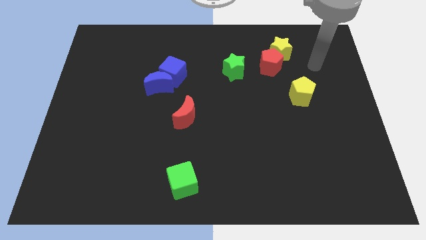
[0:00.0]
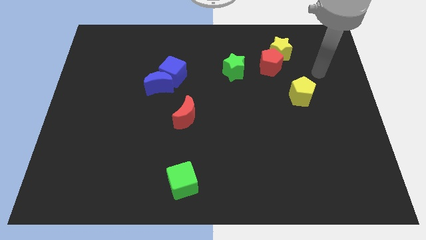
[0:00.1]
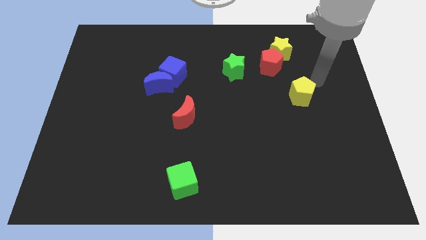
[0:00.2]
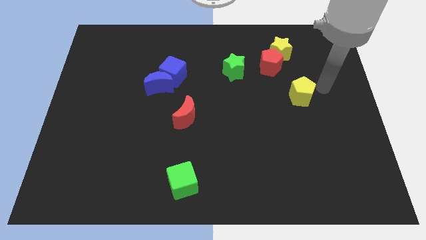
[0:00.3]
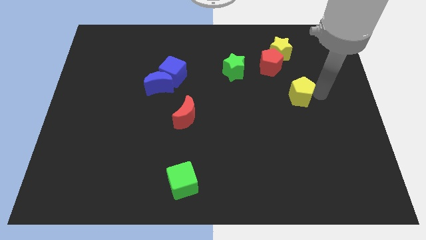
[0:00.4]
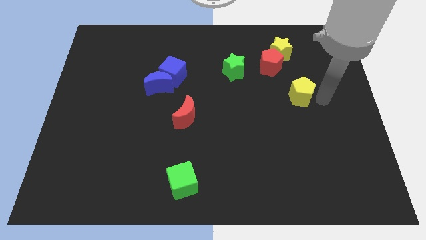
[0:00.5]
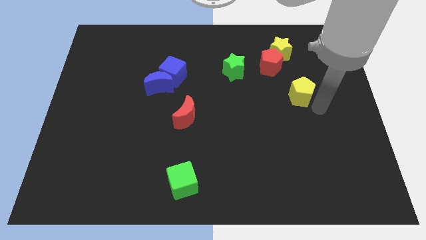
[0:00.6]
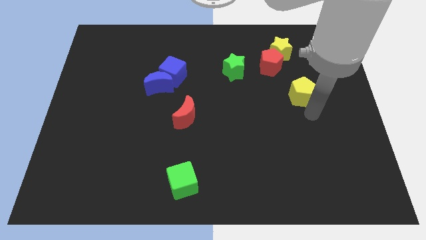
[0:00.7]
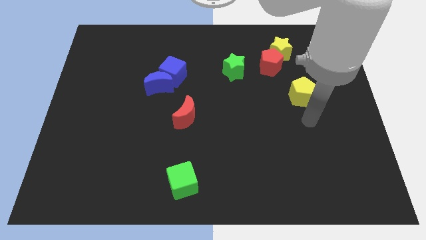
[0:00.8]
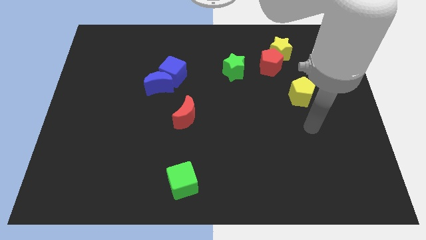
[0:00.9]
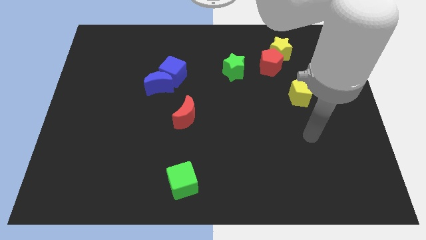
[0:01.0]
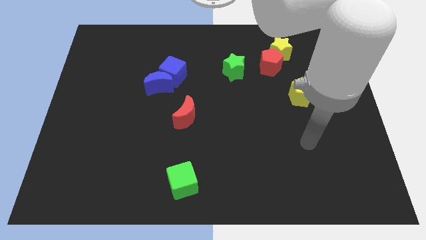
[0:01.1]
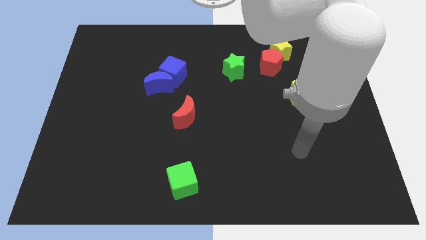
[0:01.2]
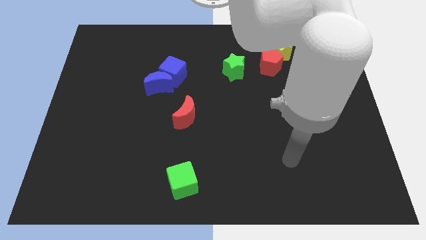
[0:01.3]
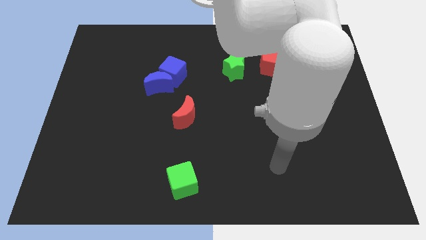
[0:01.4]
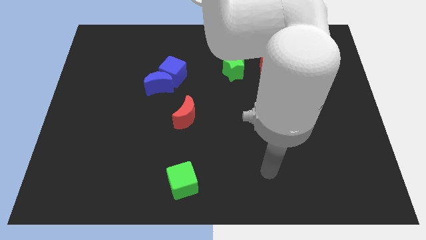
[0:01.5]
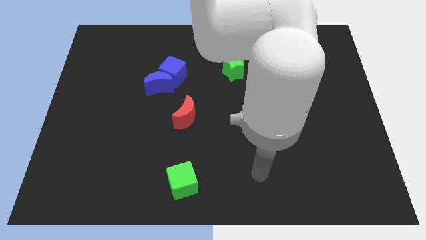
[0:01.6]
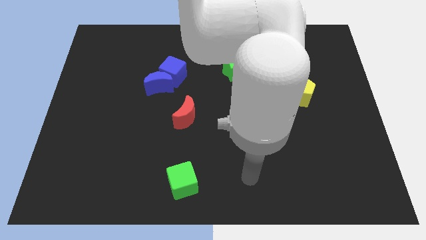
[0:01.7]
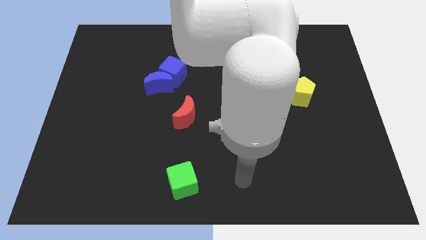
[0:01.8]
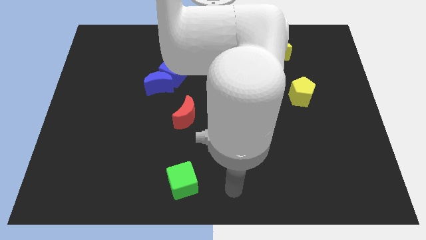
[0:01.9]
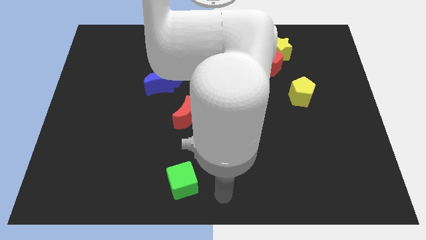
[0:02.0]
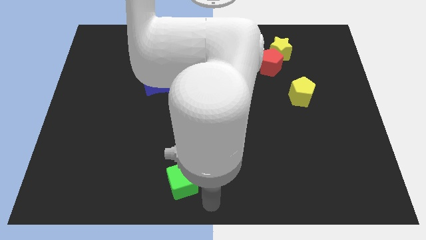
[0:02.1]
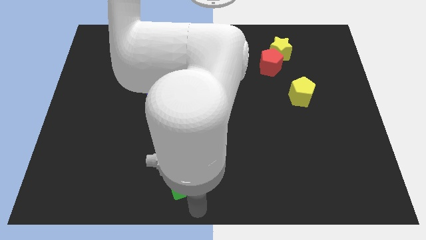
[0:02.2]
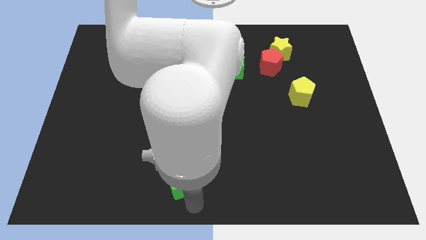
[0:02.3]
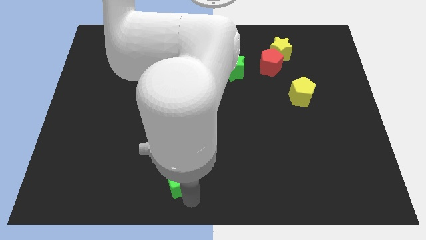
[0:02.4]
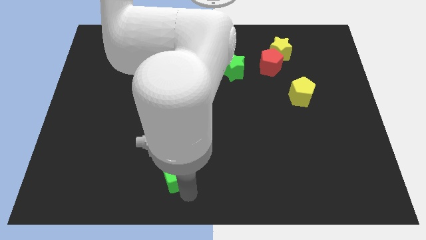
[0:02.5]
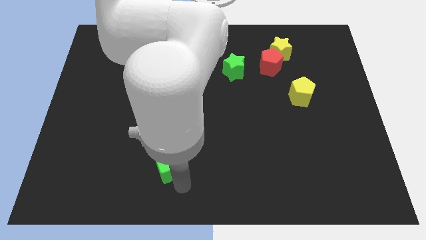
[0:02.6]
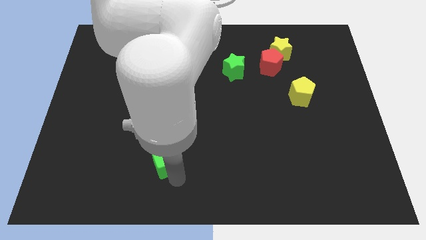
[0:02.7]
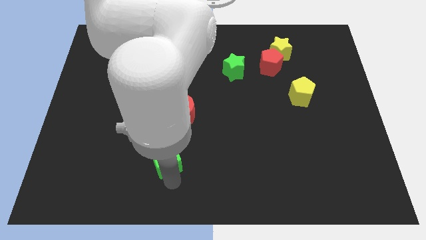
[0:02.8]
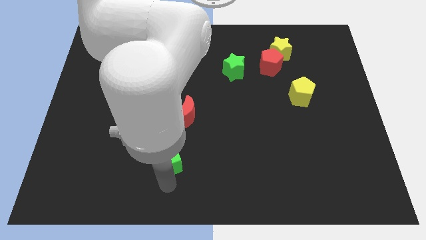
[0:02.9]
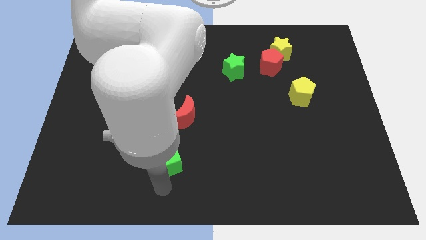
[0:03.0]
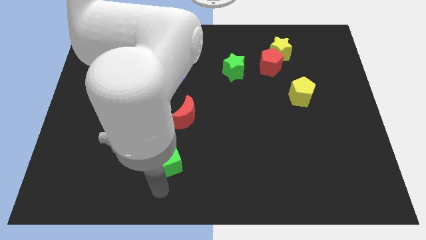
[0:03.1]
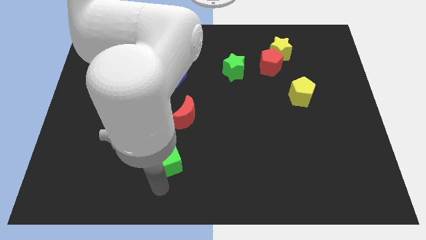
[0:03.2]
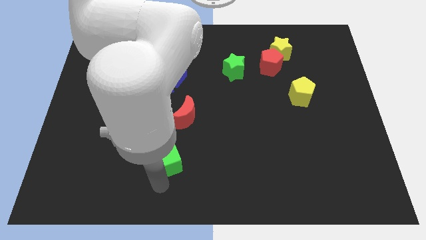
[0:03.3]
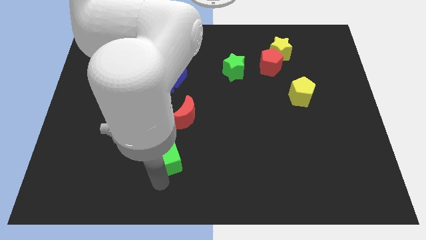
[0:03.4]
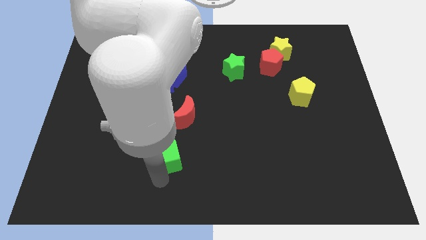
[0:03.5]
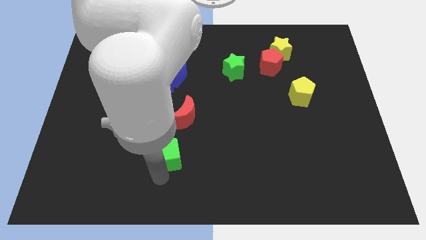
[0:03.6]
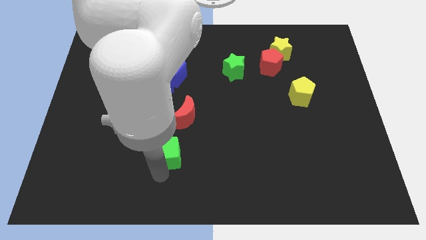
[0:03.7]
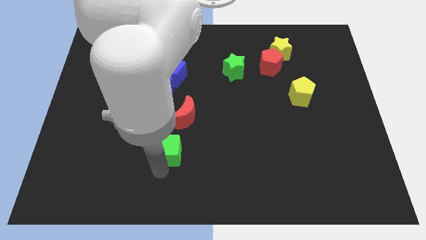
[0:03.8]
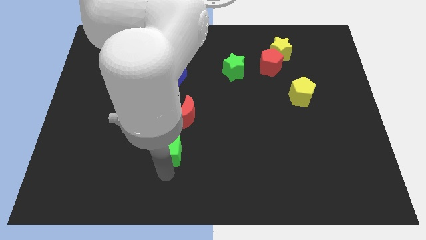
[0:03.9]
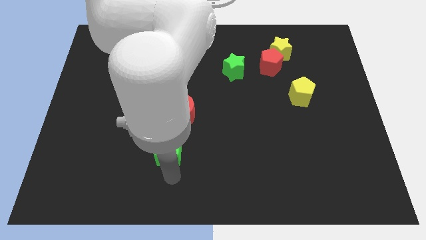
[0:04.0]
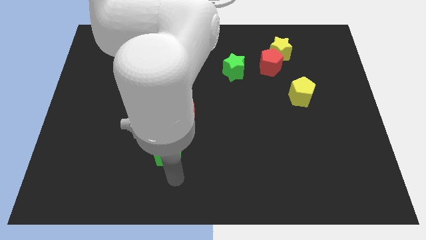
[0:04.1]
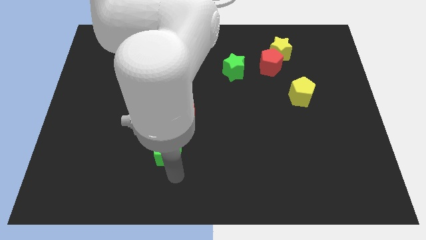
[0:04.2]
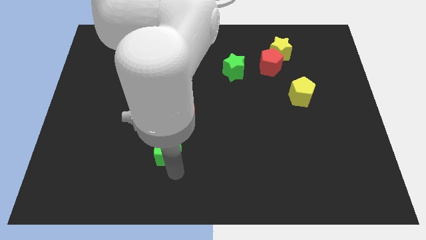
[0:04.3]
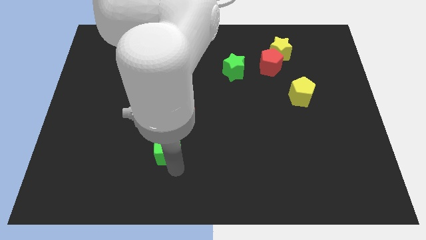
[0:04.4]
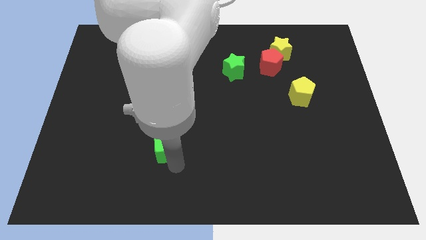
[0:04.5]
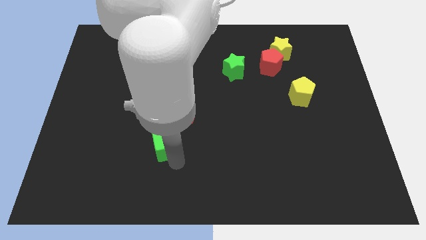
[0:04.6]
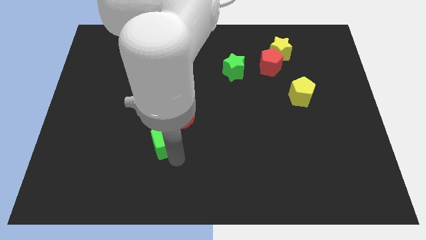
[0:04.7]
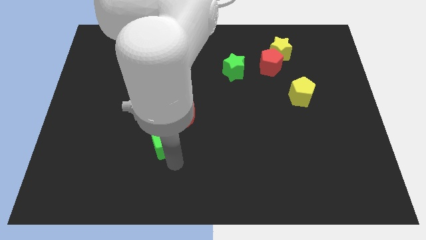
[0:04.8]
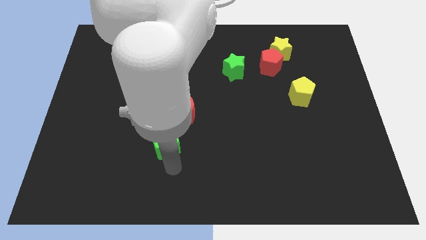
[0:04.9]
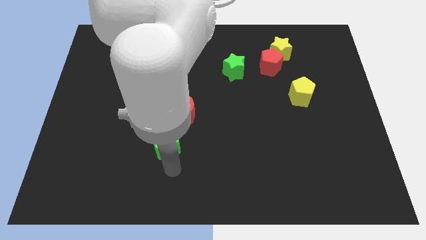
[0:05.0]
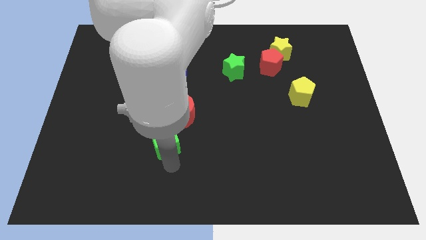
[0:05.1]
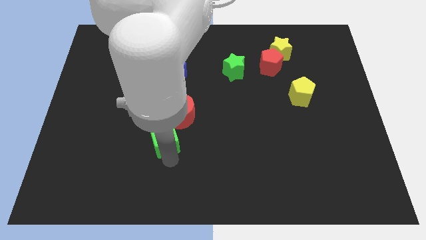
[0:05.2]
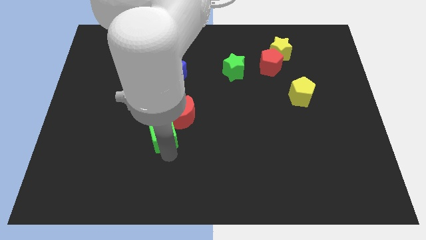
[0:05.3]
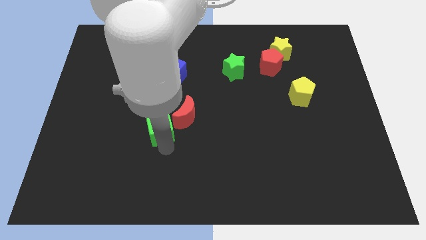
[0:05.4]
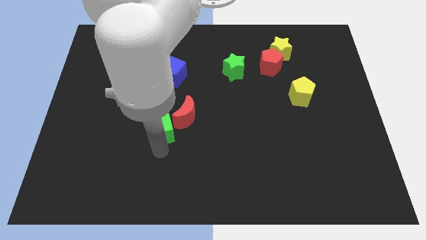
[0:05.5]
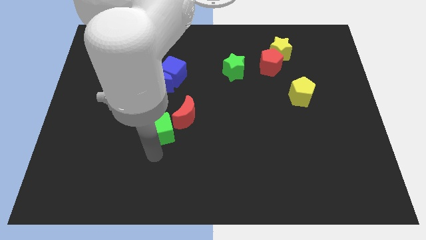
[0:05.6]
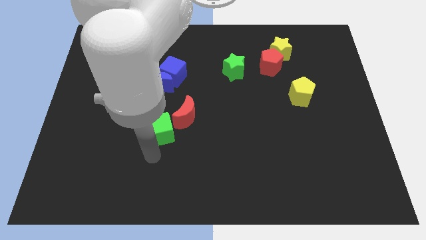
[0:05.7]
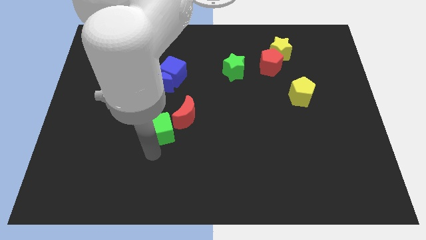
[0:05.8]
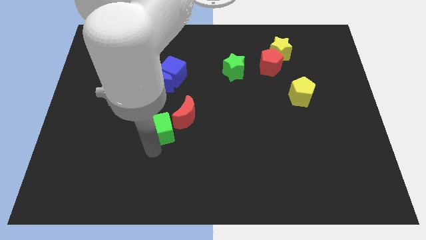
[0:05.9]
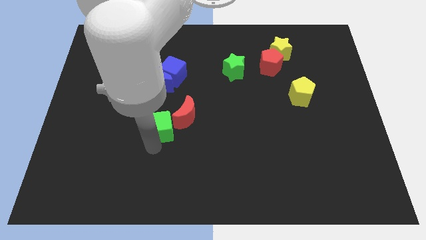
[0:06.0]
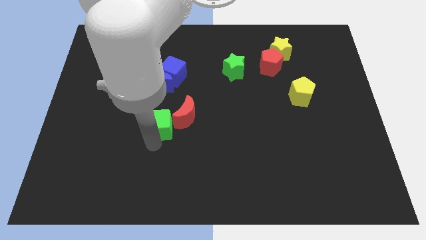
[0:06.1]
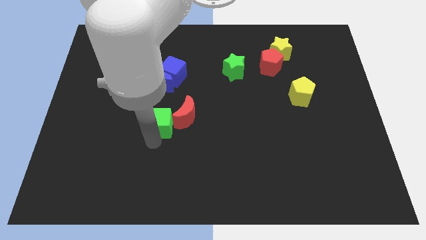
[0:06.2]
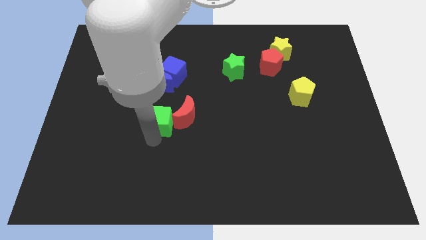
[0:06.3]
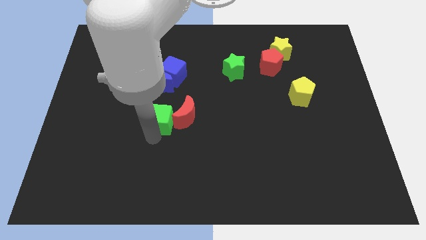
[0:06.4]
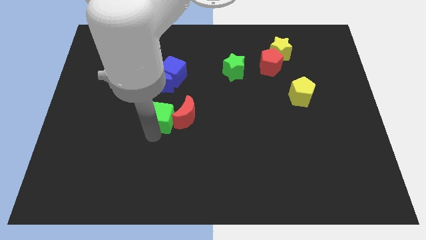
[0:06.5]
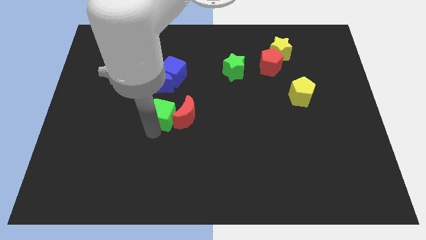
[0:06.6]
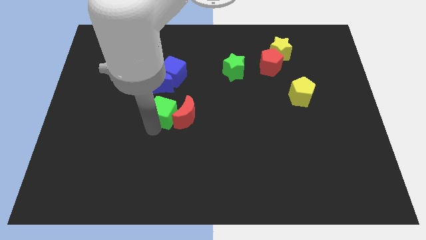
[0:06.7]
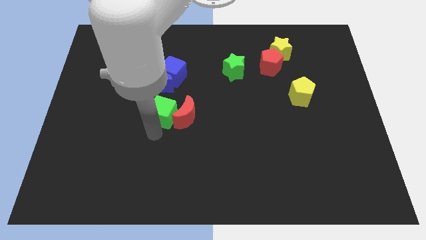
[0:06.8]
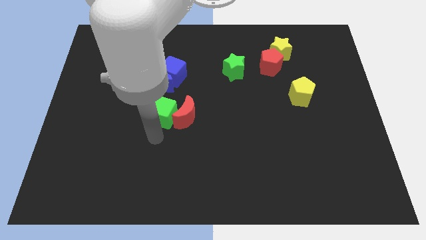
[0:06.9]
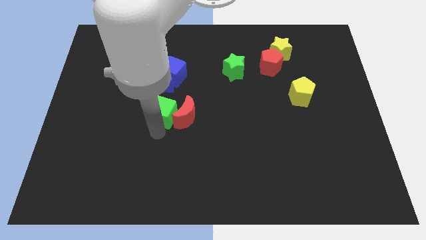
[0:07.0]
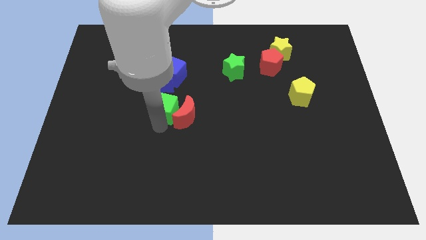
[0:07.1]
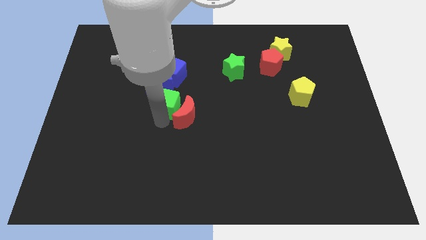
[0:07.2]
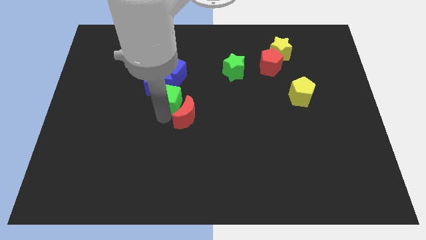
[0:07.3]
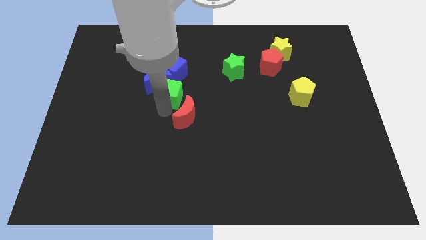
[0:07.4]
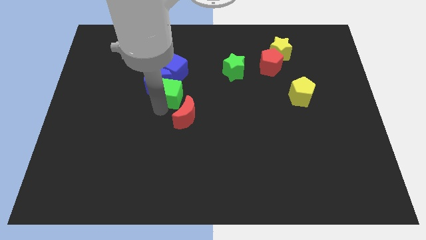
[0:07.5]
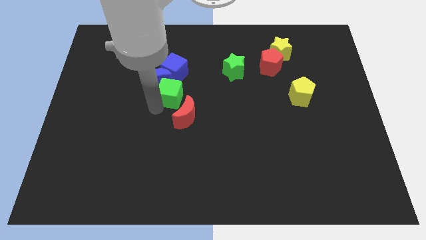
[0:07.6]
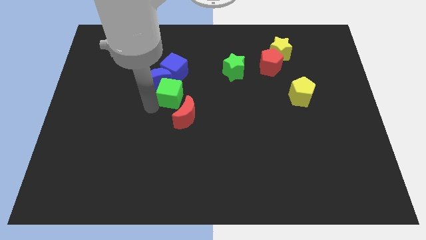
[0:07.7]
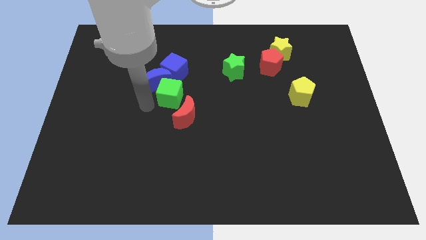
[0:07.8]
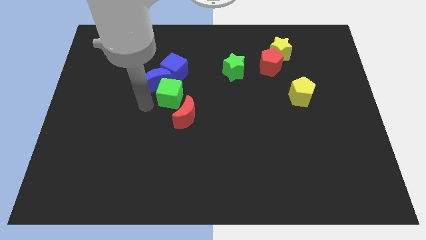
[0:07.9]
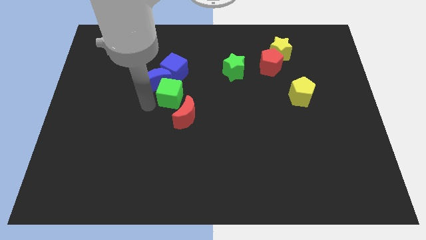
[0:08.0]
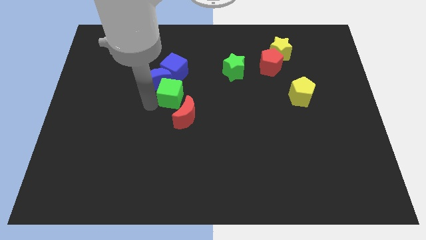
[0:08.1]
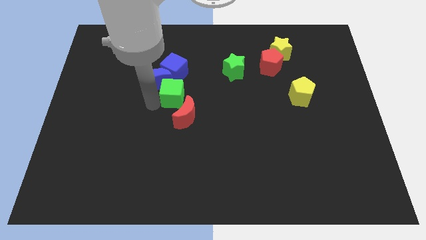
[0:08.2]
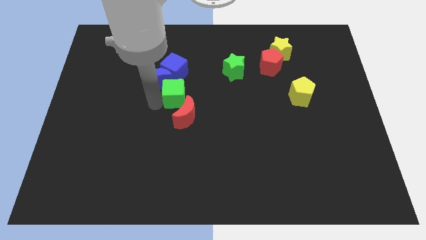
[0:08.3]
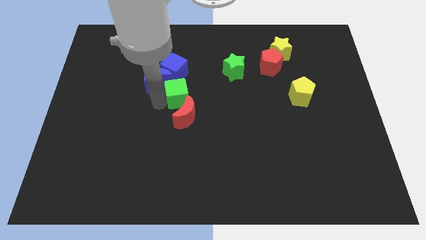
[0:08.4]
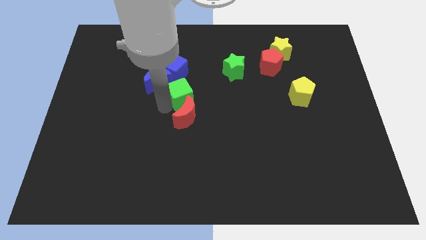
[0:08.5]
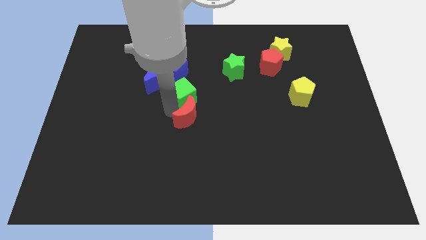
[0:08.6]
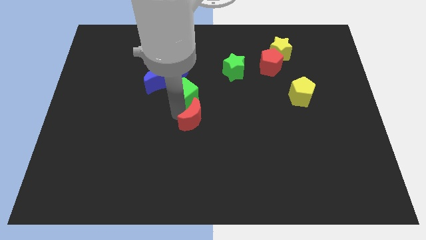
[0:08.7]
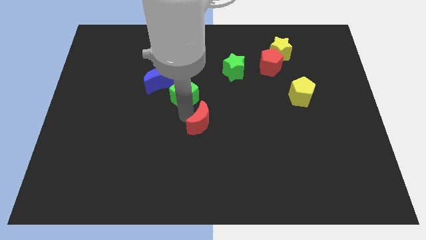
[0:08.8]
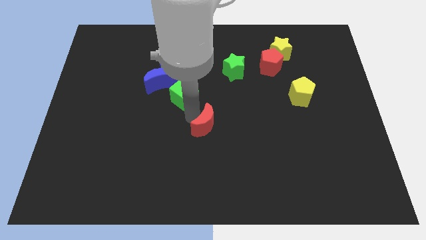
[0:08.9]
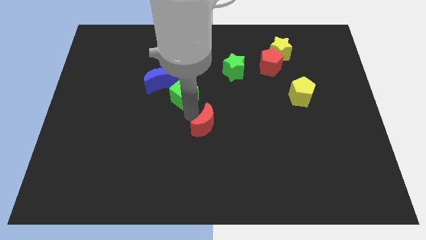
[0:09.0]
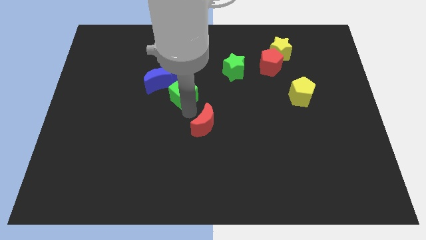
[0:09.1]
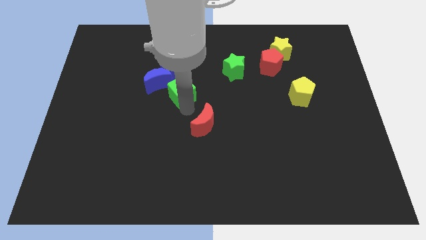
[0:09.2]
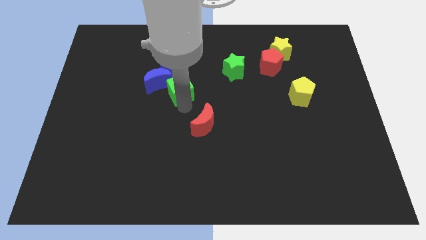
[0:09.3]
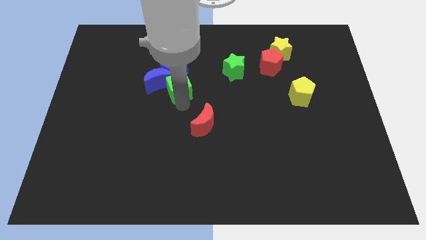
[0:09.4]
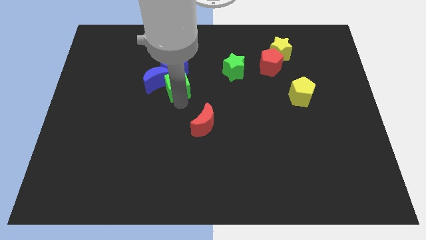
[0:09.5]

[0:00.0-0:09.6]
push the green cube next to the blue cube
